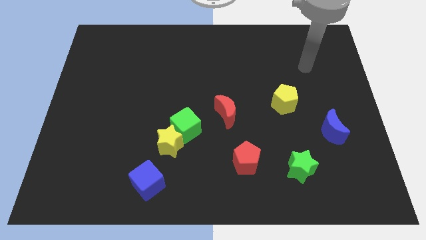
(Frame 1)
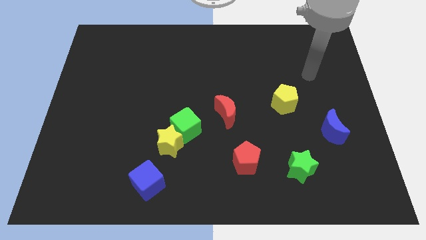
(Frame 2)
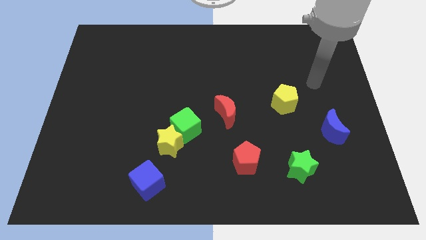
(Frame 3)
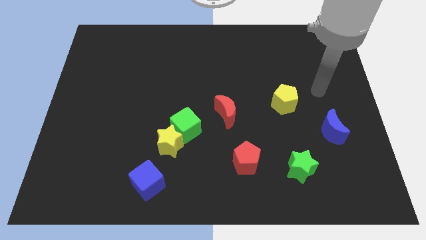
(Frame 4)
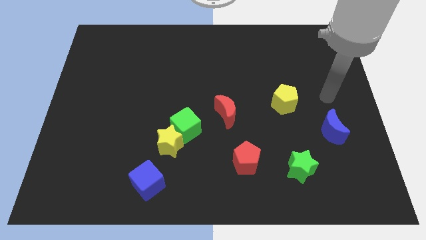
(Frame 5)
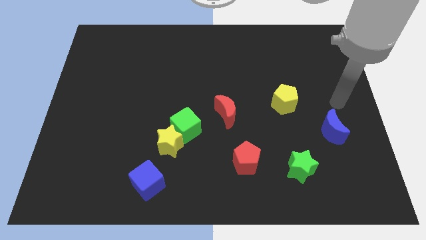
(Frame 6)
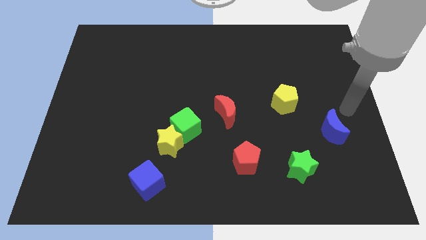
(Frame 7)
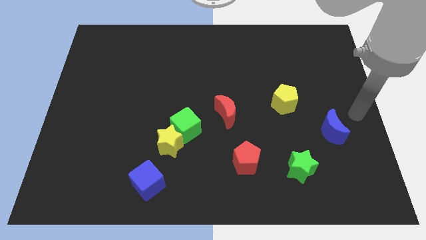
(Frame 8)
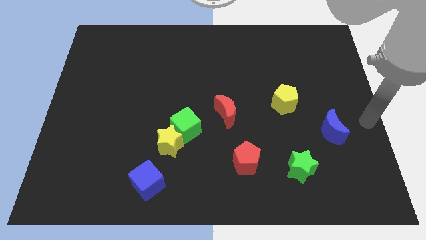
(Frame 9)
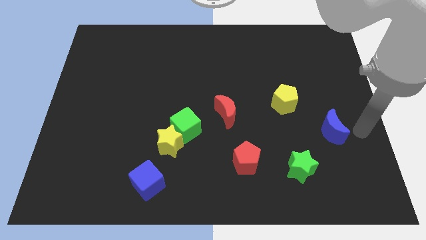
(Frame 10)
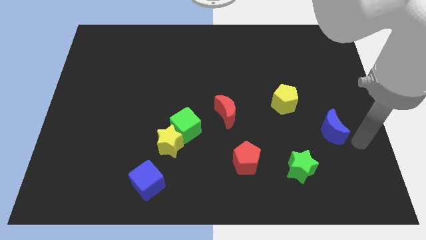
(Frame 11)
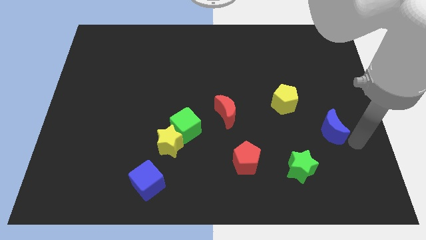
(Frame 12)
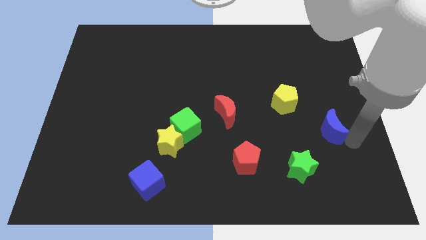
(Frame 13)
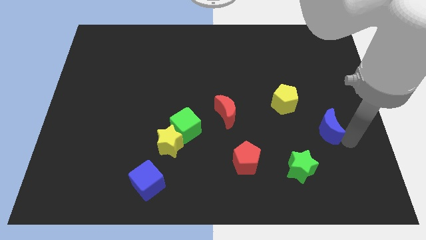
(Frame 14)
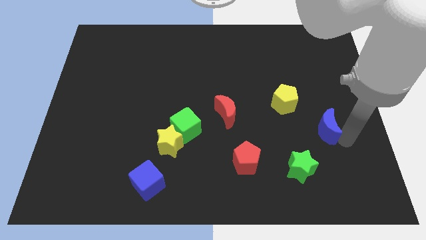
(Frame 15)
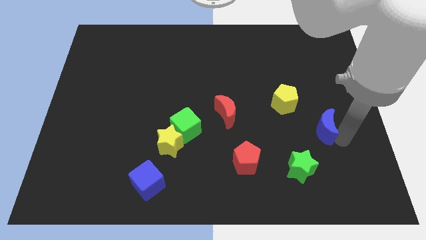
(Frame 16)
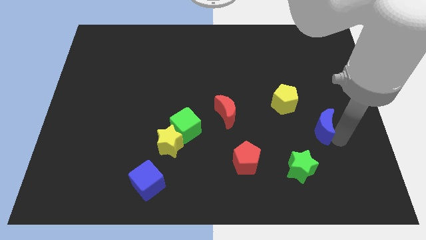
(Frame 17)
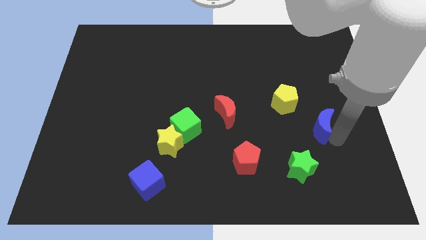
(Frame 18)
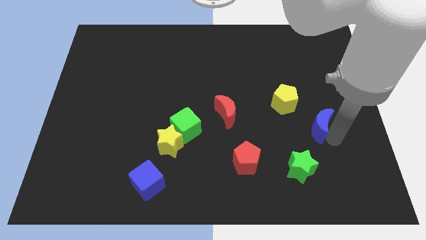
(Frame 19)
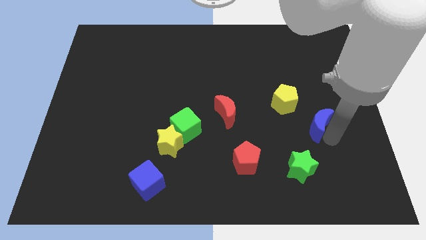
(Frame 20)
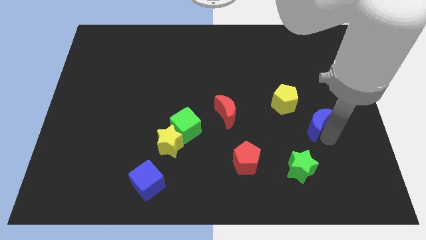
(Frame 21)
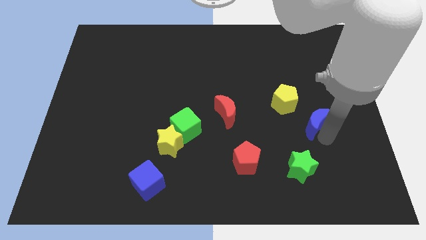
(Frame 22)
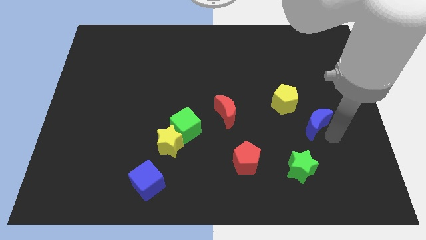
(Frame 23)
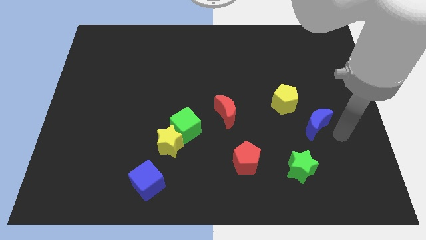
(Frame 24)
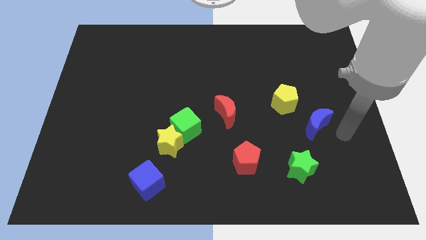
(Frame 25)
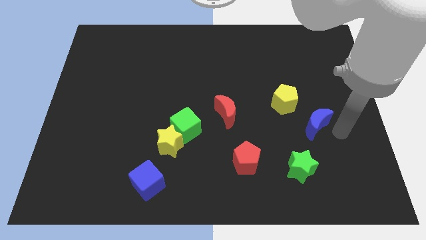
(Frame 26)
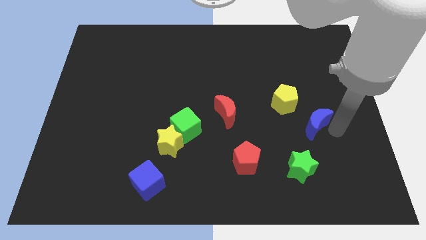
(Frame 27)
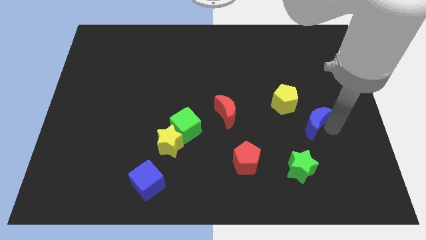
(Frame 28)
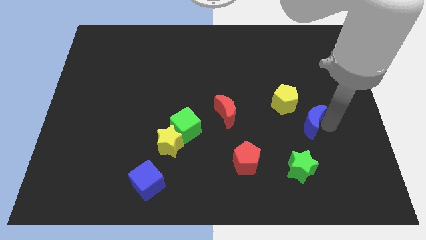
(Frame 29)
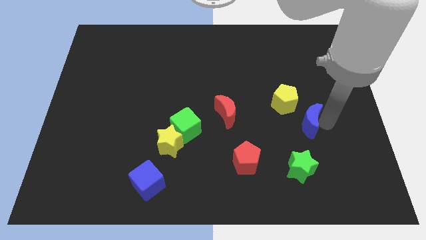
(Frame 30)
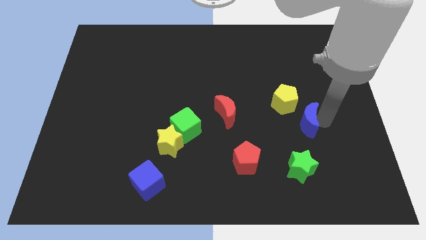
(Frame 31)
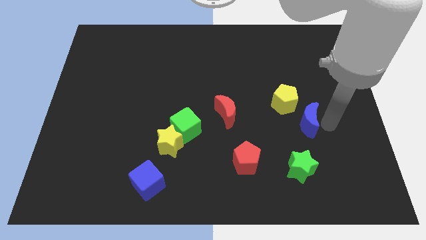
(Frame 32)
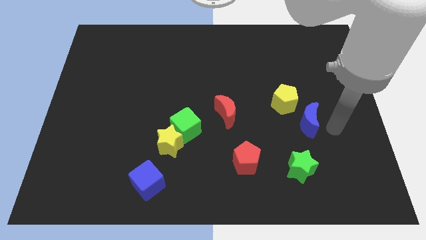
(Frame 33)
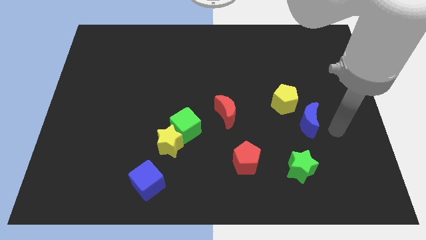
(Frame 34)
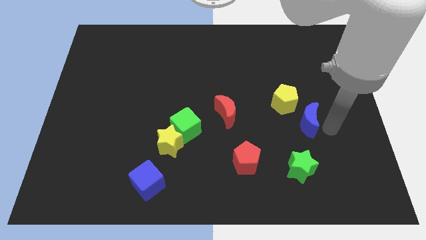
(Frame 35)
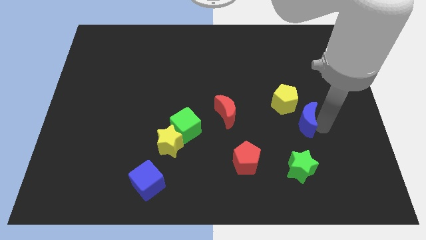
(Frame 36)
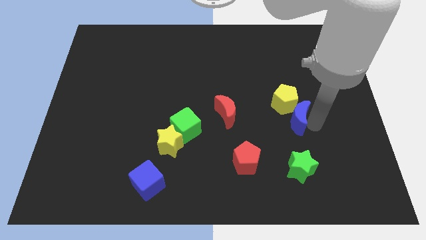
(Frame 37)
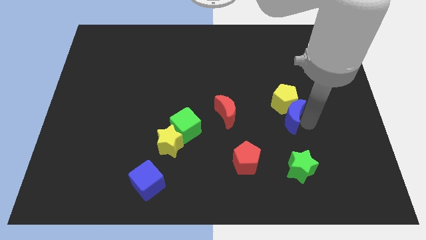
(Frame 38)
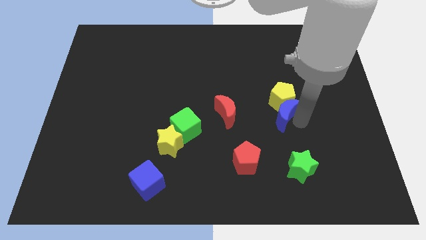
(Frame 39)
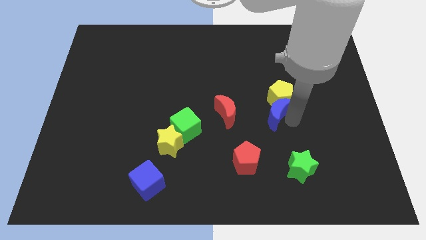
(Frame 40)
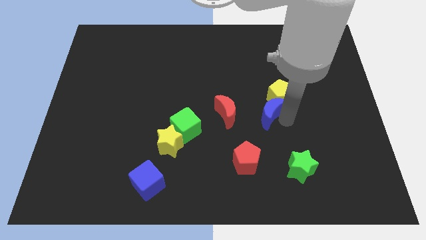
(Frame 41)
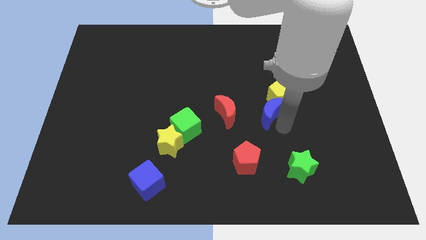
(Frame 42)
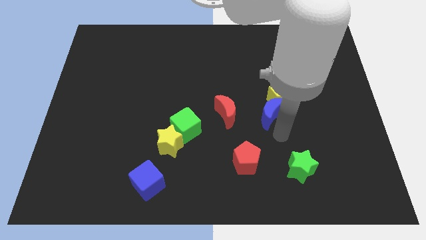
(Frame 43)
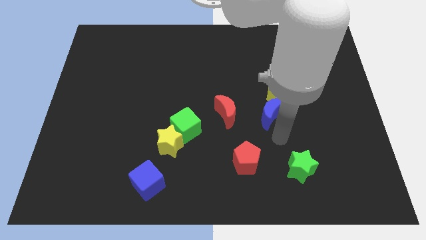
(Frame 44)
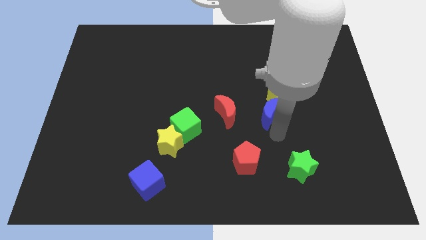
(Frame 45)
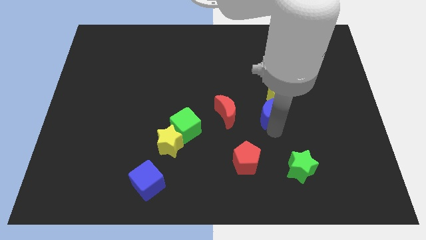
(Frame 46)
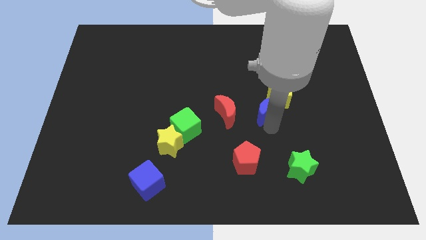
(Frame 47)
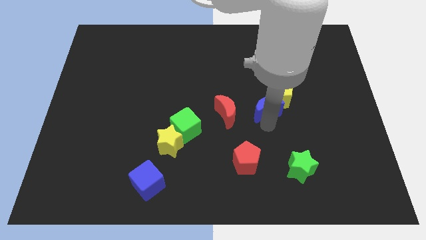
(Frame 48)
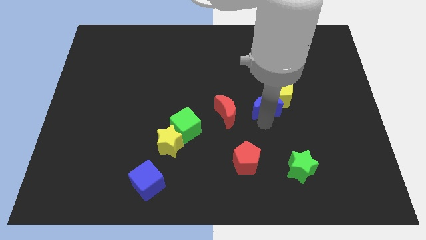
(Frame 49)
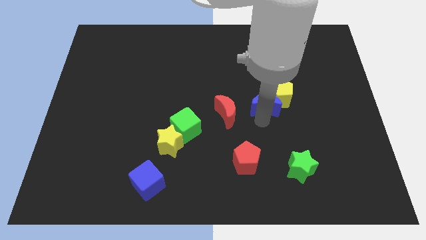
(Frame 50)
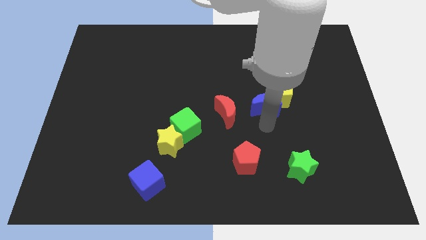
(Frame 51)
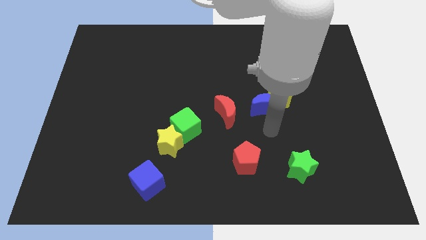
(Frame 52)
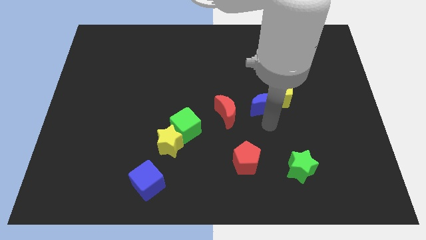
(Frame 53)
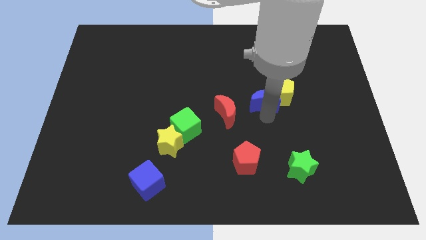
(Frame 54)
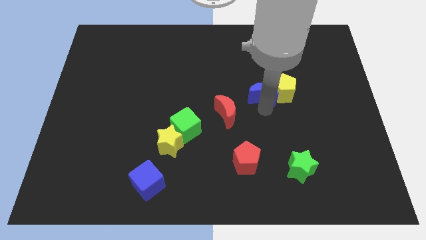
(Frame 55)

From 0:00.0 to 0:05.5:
push the blue moon to the top left side of the yellow pentagon

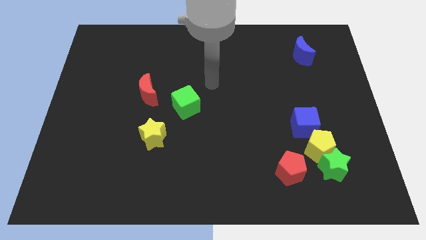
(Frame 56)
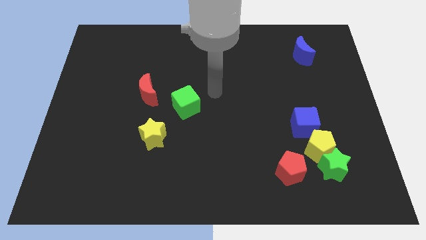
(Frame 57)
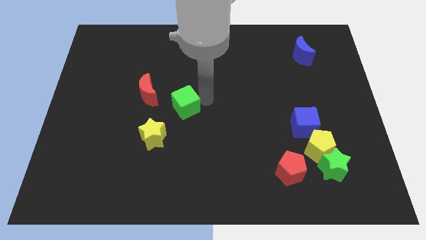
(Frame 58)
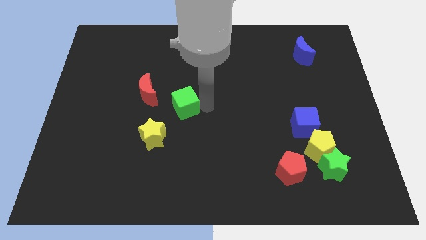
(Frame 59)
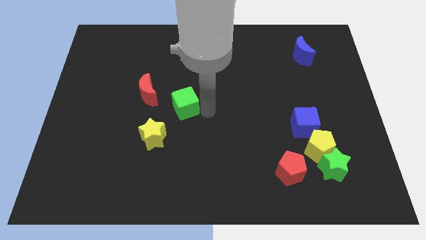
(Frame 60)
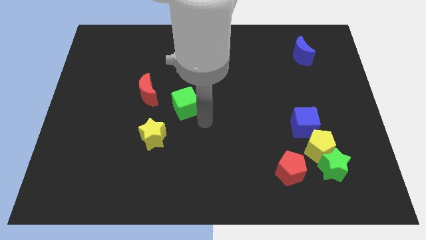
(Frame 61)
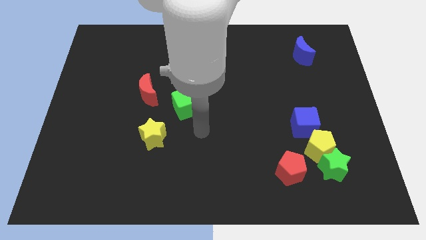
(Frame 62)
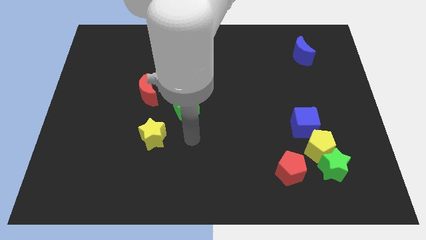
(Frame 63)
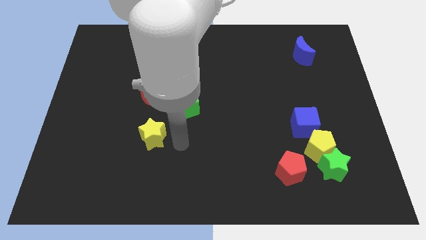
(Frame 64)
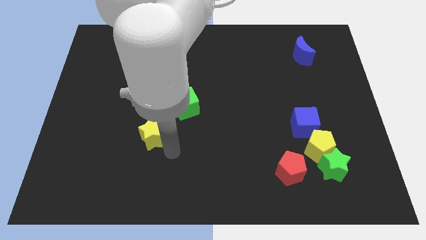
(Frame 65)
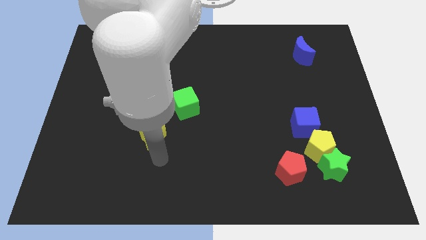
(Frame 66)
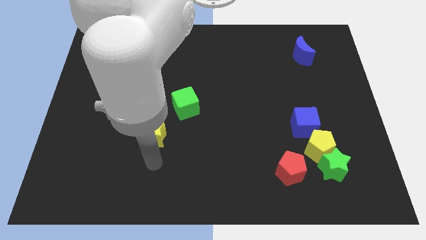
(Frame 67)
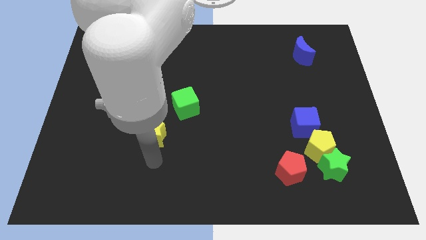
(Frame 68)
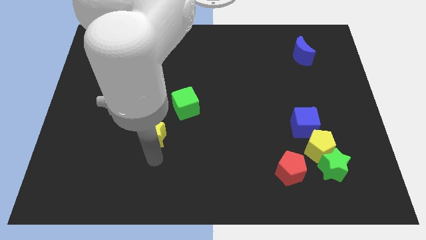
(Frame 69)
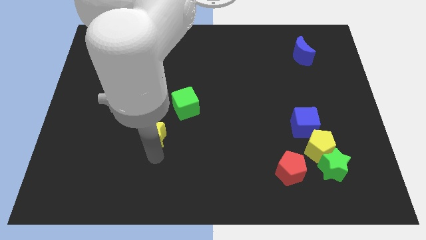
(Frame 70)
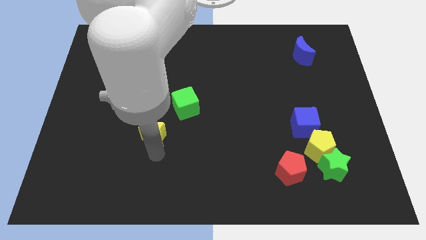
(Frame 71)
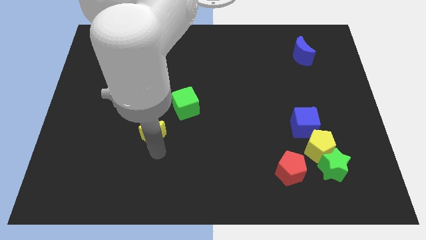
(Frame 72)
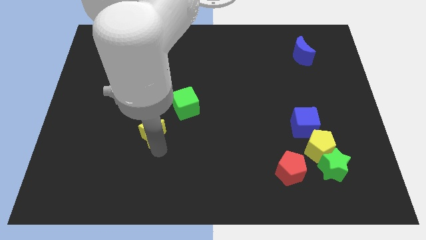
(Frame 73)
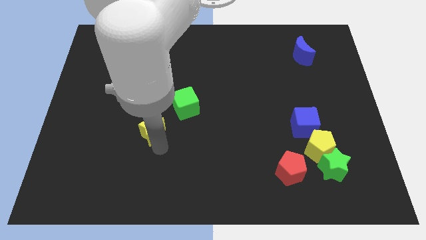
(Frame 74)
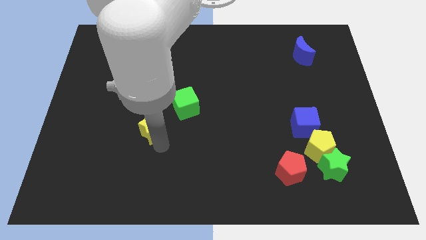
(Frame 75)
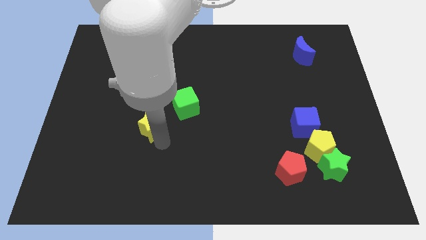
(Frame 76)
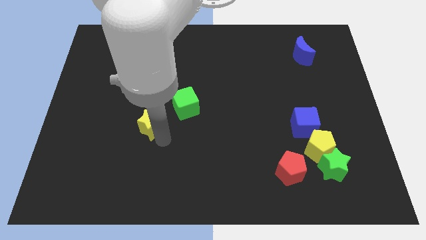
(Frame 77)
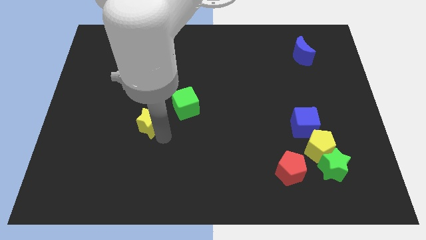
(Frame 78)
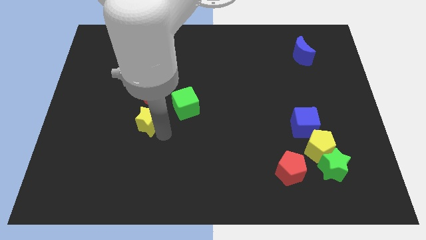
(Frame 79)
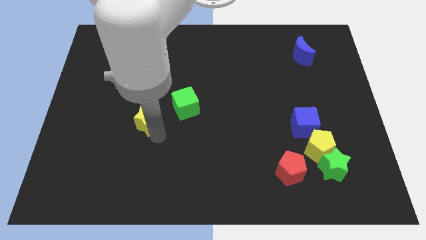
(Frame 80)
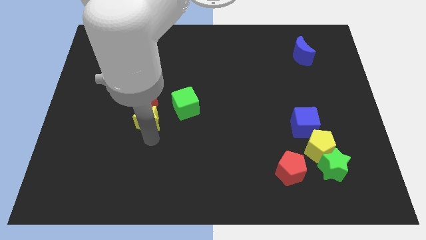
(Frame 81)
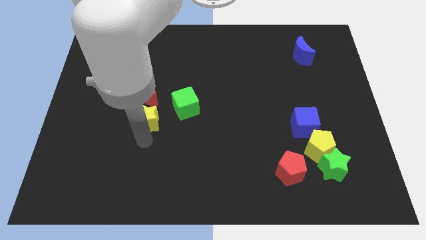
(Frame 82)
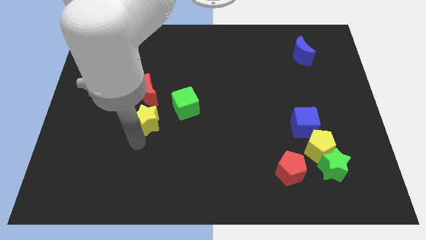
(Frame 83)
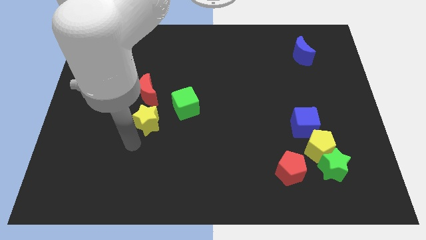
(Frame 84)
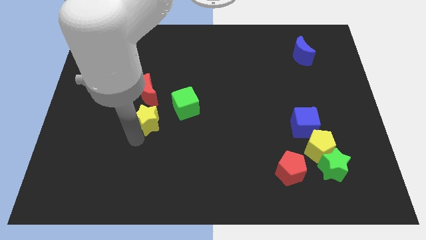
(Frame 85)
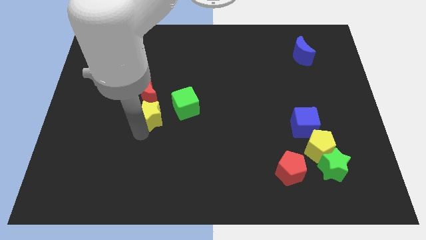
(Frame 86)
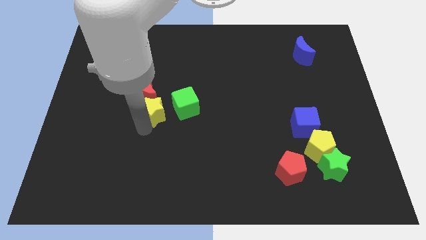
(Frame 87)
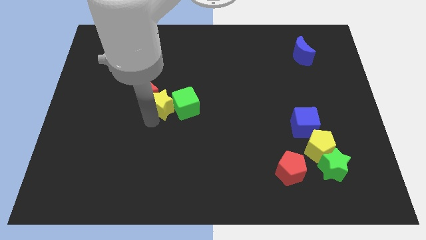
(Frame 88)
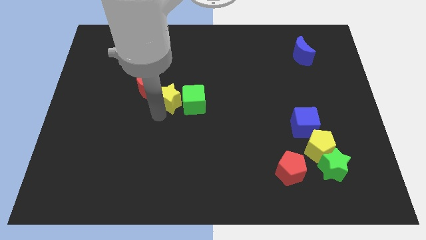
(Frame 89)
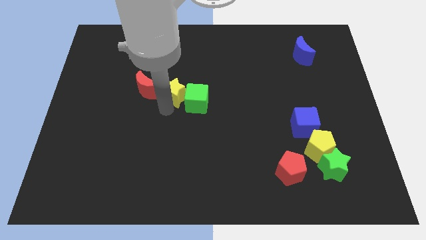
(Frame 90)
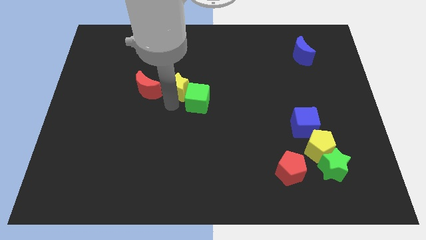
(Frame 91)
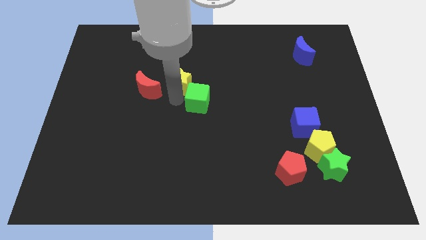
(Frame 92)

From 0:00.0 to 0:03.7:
slide the yellow star diagonally up and to the right of the red moon
